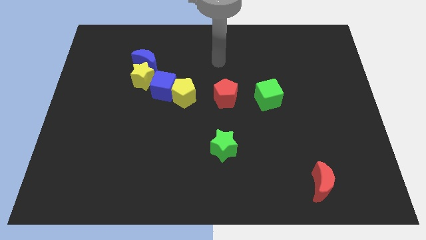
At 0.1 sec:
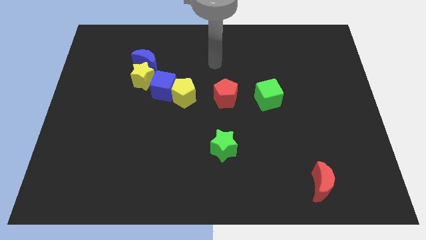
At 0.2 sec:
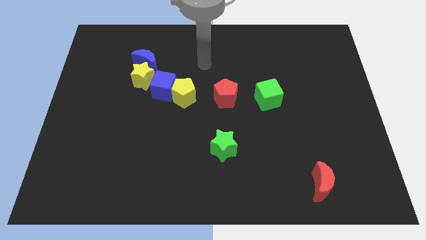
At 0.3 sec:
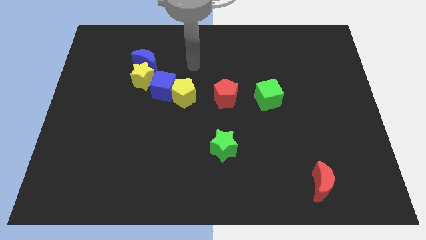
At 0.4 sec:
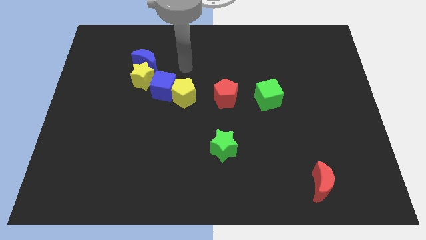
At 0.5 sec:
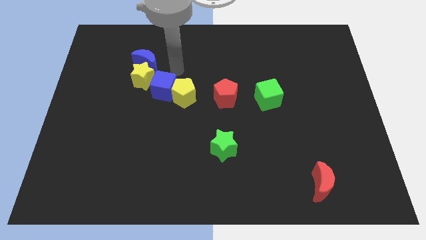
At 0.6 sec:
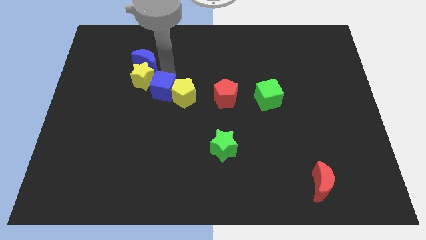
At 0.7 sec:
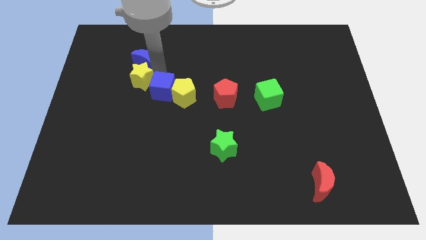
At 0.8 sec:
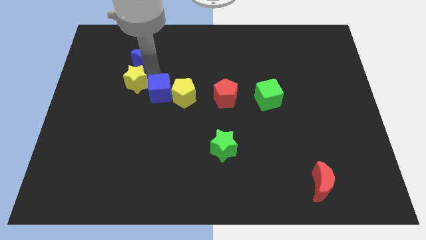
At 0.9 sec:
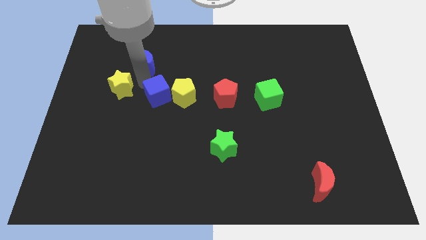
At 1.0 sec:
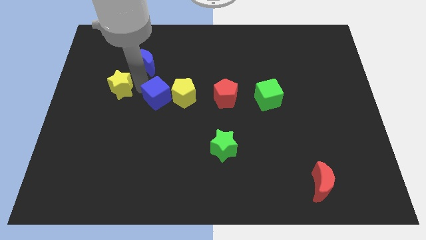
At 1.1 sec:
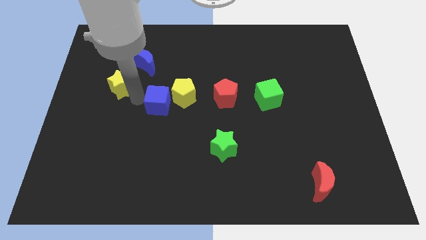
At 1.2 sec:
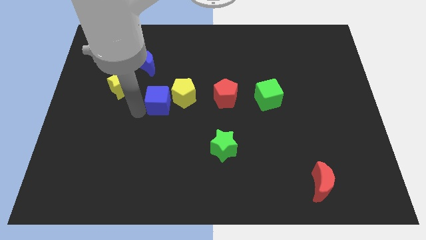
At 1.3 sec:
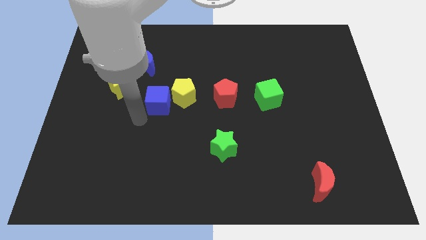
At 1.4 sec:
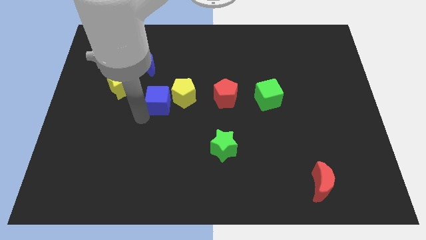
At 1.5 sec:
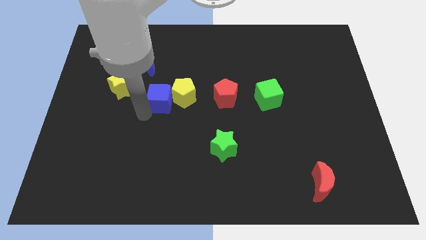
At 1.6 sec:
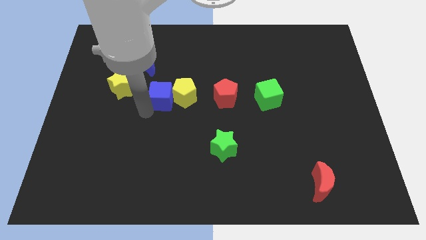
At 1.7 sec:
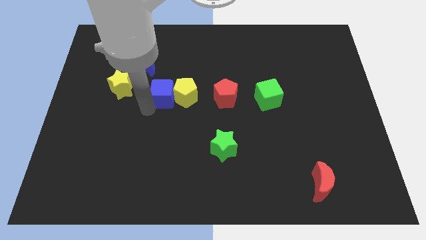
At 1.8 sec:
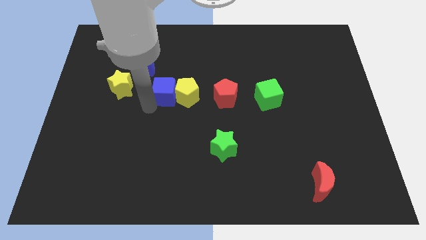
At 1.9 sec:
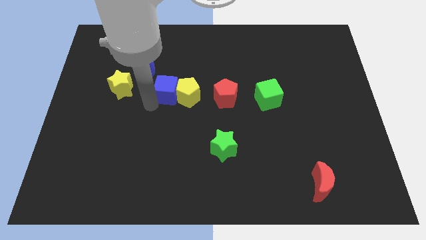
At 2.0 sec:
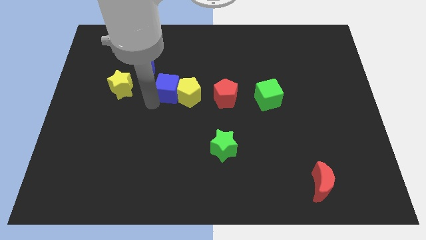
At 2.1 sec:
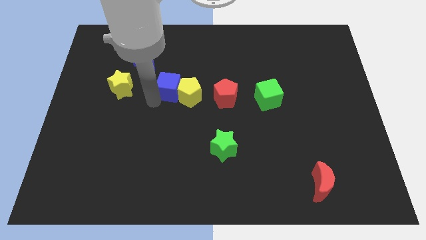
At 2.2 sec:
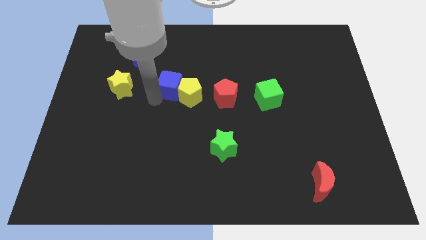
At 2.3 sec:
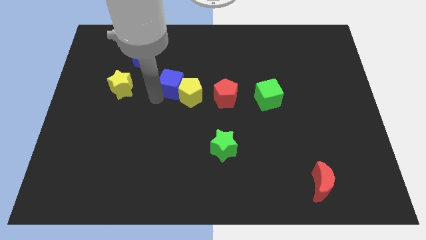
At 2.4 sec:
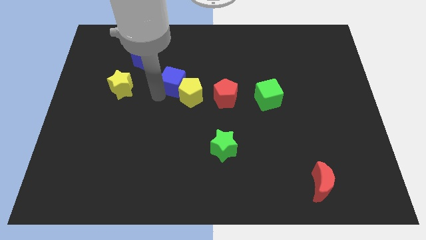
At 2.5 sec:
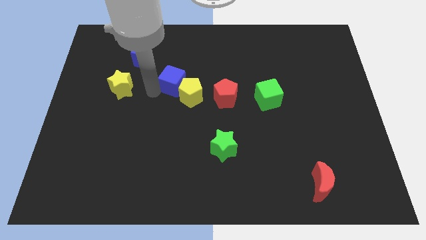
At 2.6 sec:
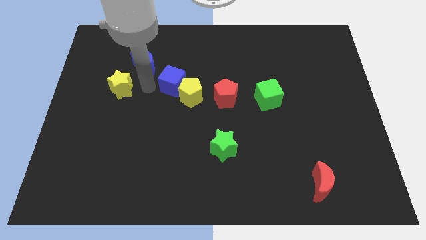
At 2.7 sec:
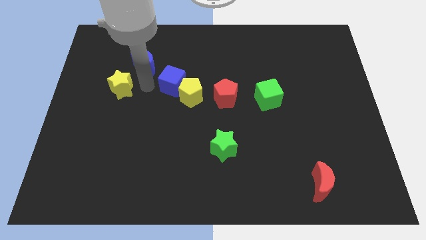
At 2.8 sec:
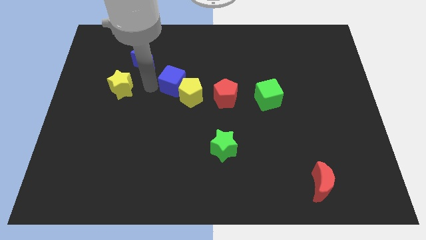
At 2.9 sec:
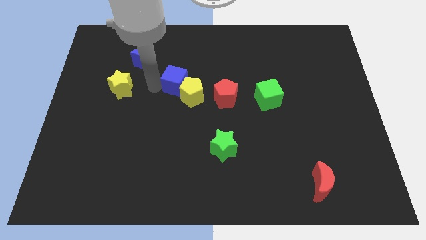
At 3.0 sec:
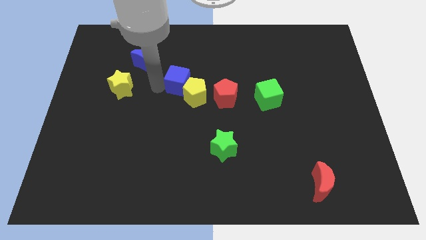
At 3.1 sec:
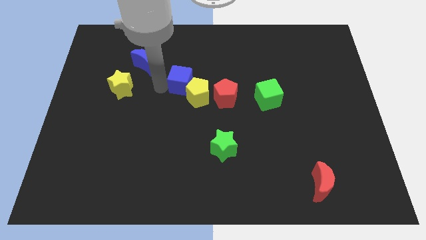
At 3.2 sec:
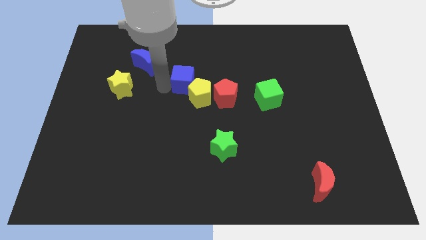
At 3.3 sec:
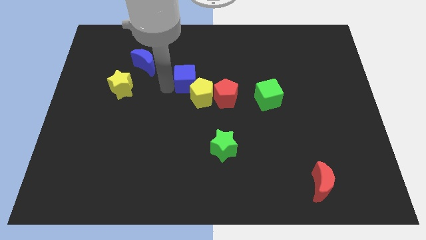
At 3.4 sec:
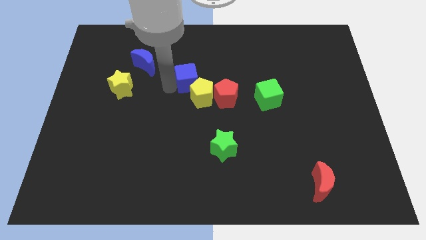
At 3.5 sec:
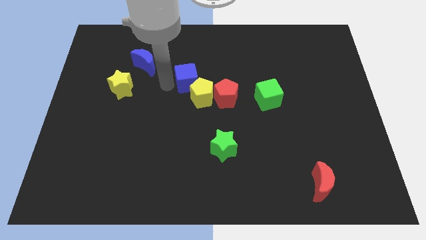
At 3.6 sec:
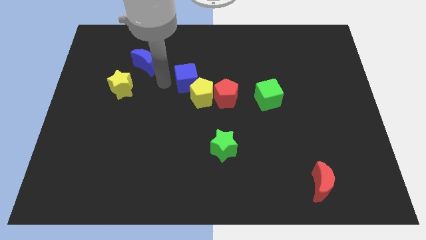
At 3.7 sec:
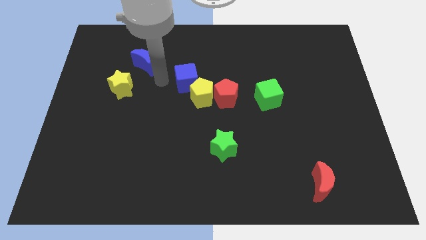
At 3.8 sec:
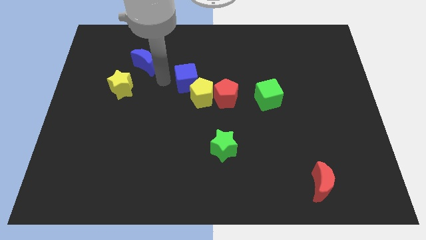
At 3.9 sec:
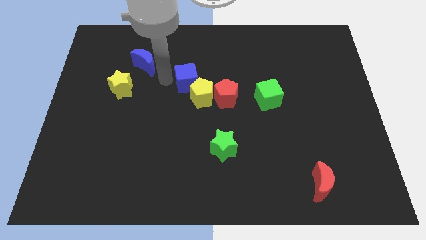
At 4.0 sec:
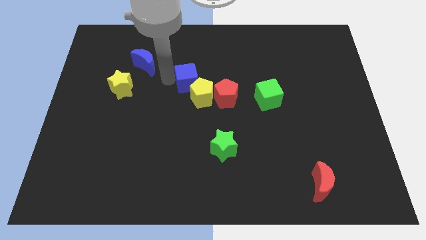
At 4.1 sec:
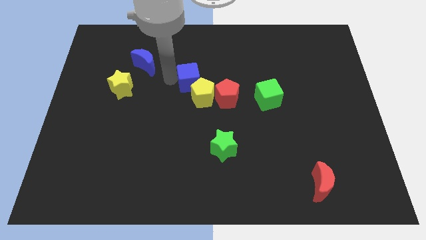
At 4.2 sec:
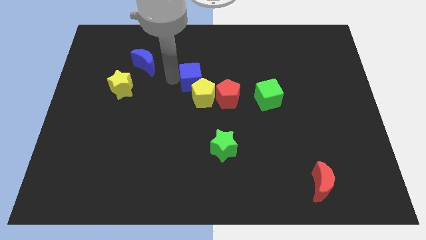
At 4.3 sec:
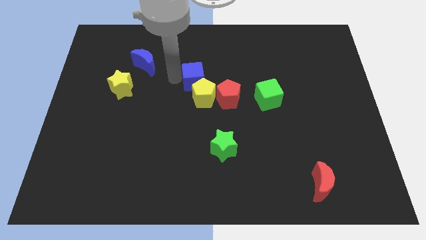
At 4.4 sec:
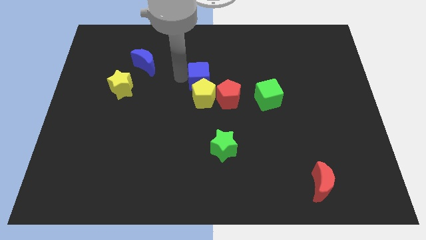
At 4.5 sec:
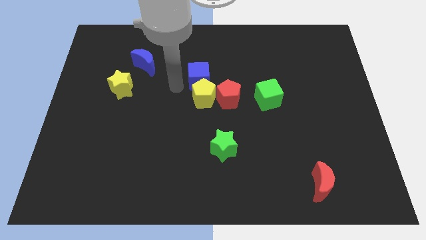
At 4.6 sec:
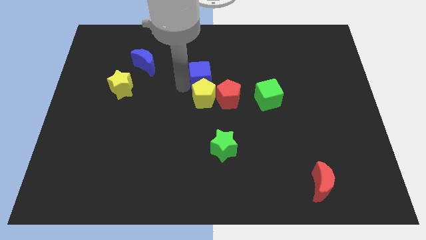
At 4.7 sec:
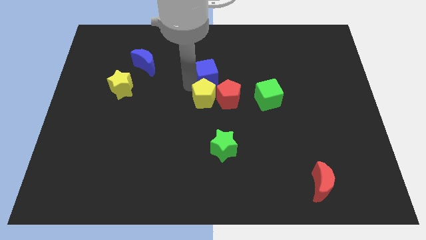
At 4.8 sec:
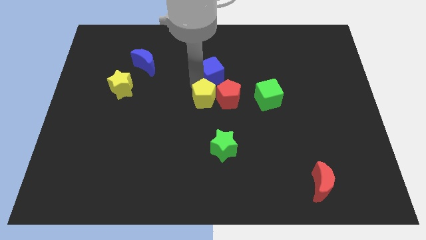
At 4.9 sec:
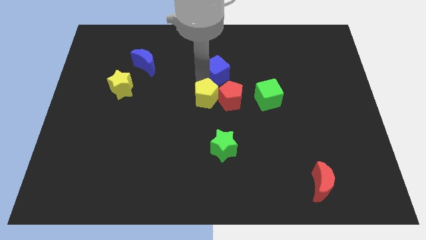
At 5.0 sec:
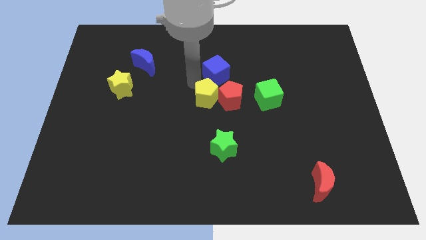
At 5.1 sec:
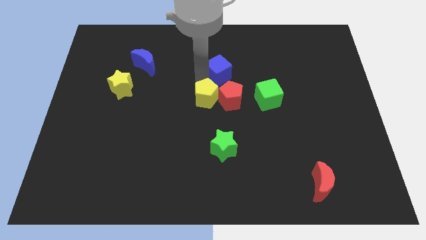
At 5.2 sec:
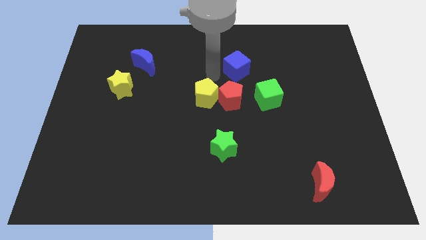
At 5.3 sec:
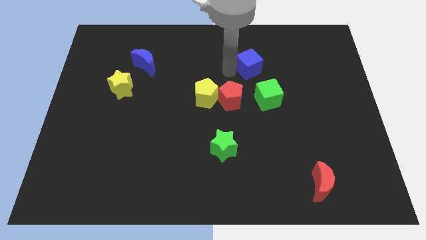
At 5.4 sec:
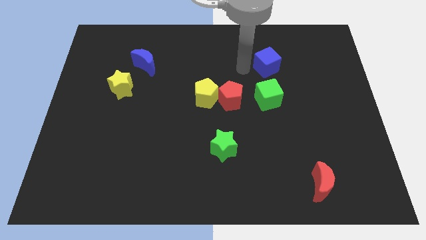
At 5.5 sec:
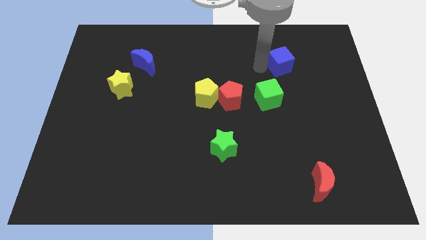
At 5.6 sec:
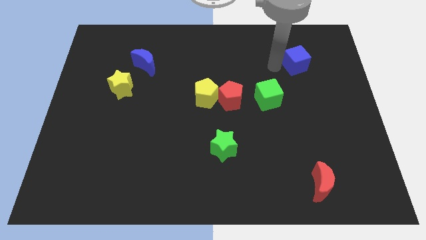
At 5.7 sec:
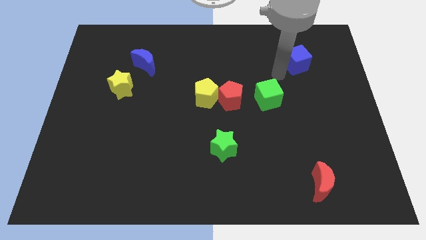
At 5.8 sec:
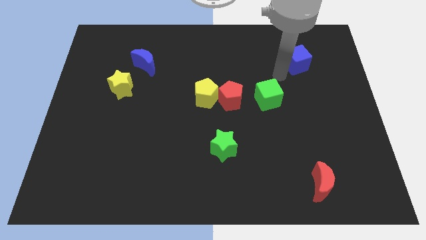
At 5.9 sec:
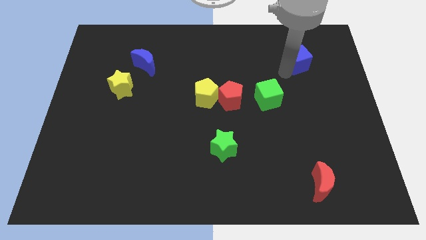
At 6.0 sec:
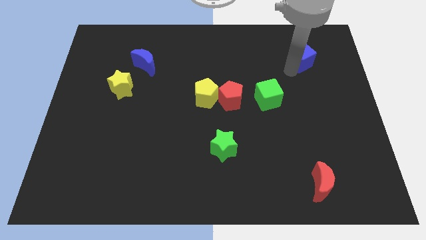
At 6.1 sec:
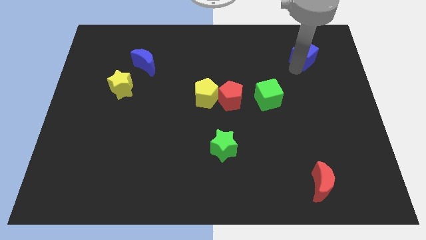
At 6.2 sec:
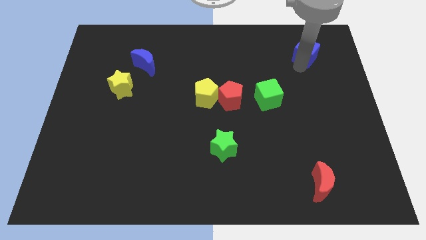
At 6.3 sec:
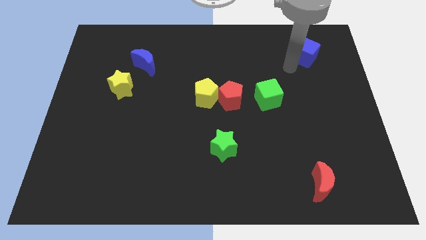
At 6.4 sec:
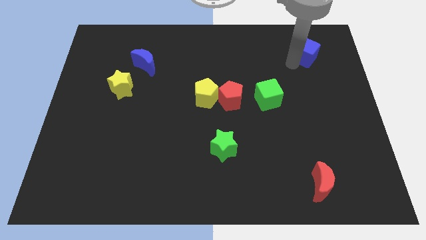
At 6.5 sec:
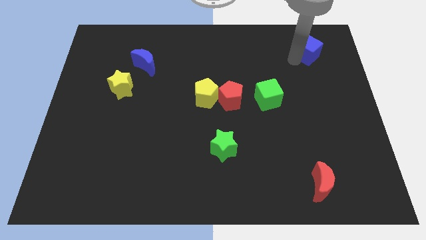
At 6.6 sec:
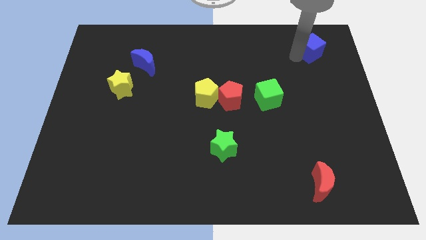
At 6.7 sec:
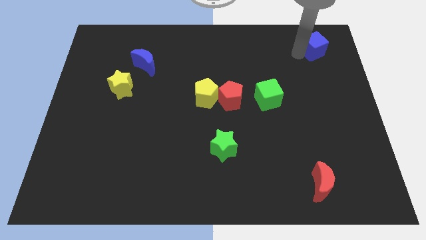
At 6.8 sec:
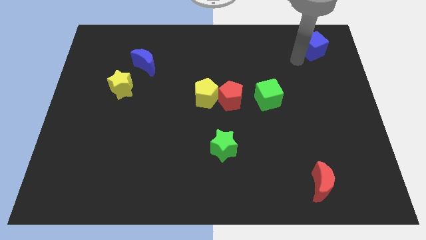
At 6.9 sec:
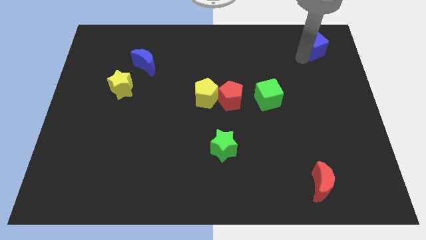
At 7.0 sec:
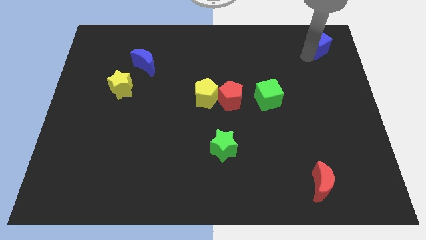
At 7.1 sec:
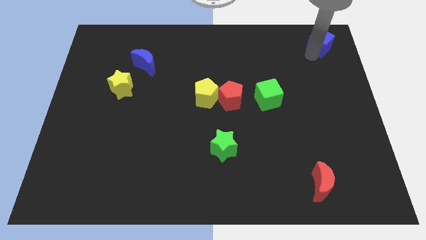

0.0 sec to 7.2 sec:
put the blue cube to the upper right corner
